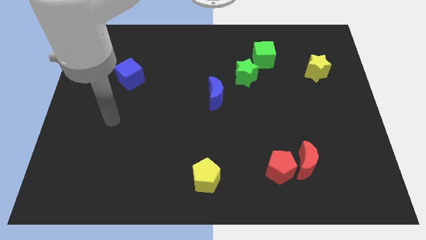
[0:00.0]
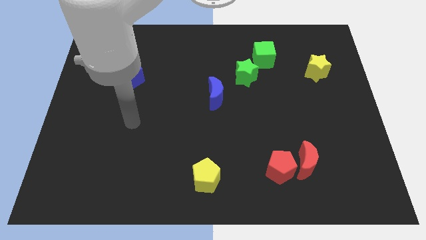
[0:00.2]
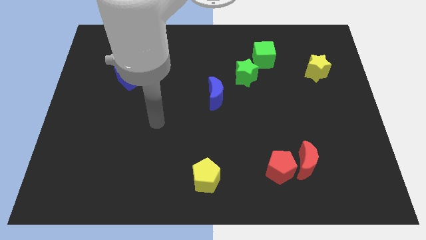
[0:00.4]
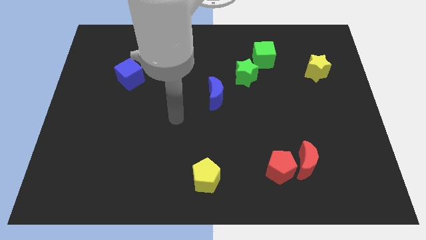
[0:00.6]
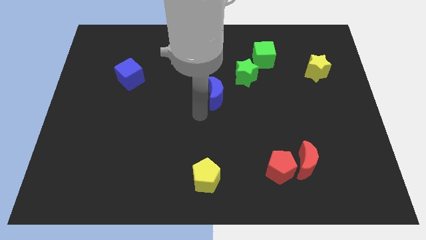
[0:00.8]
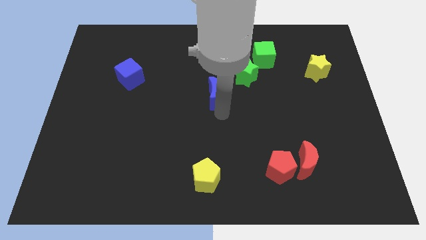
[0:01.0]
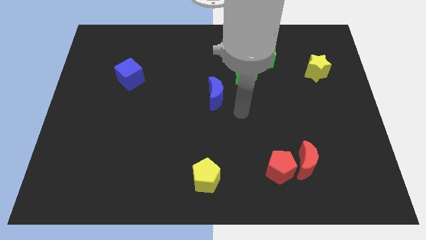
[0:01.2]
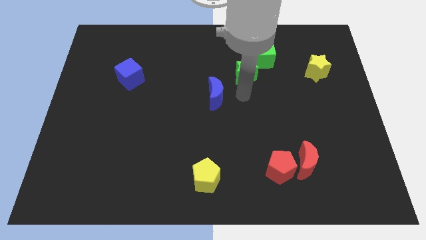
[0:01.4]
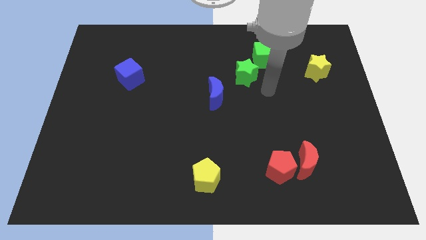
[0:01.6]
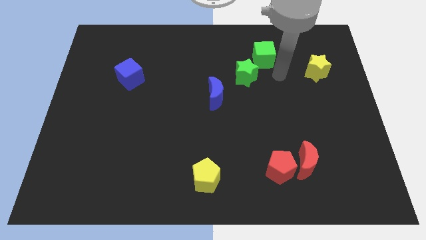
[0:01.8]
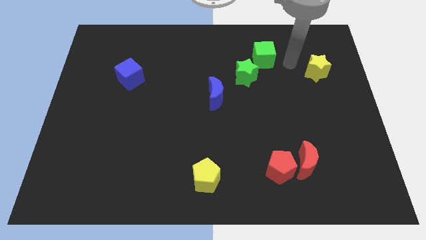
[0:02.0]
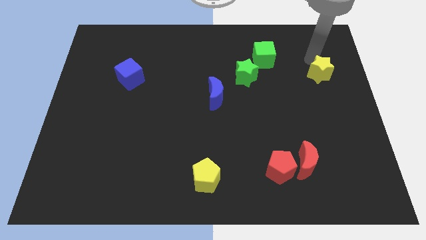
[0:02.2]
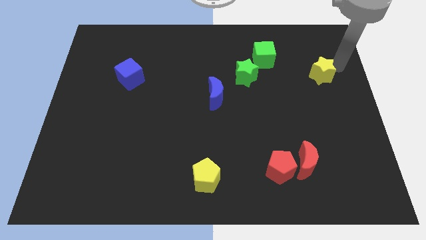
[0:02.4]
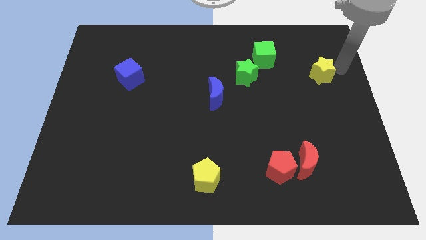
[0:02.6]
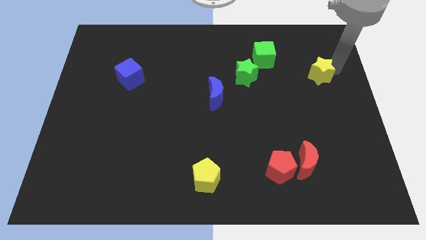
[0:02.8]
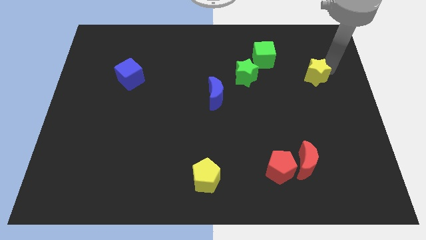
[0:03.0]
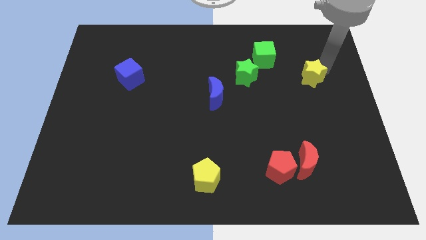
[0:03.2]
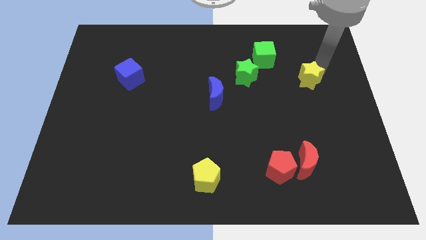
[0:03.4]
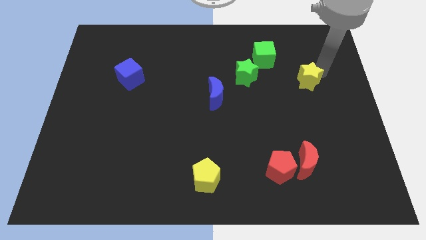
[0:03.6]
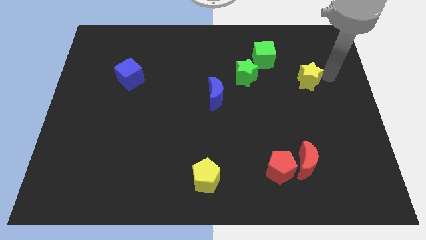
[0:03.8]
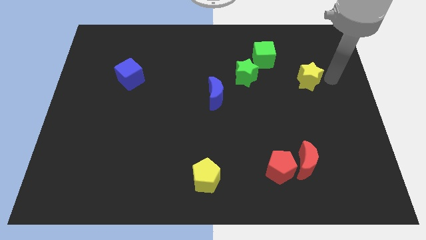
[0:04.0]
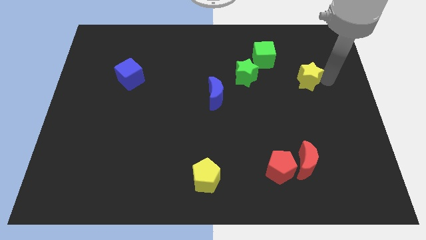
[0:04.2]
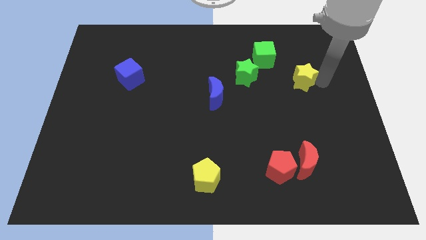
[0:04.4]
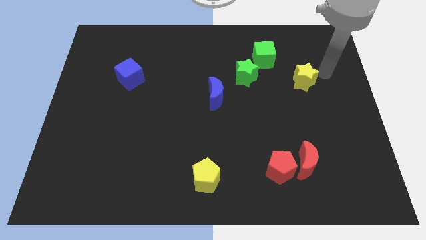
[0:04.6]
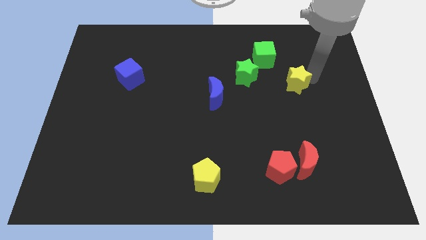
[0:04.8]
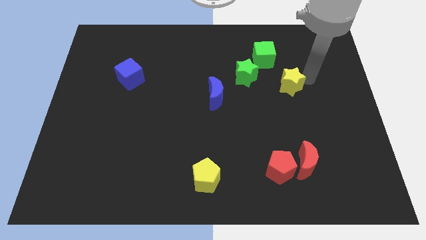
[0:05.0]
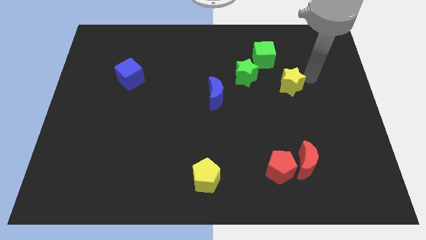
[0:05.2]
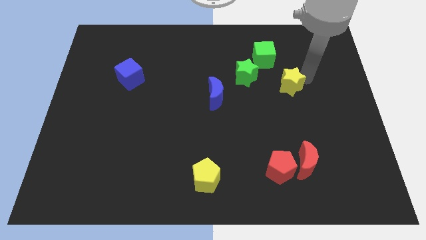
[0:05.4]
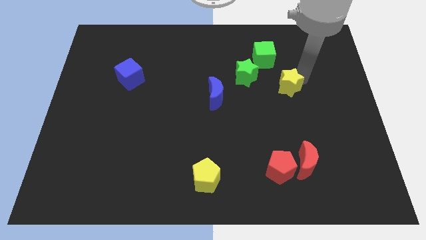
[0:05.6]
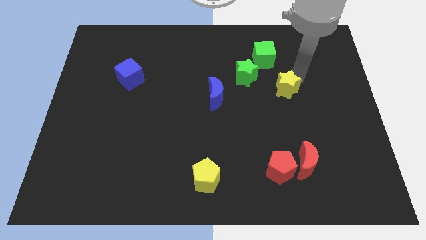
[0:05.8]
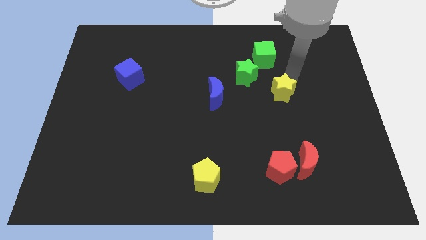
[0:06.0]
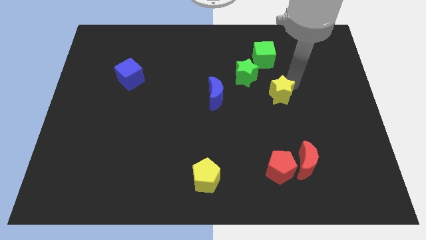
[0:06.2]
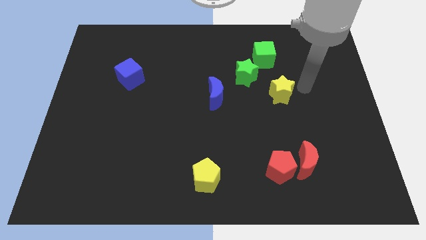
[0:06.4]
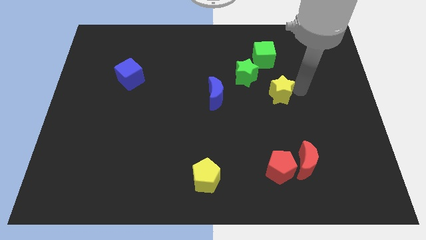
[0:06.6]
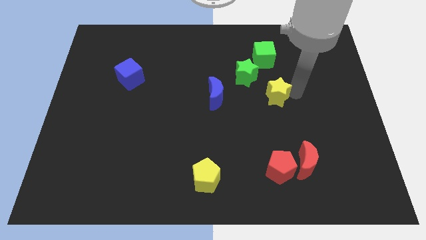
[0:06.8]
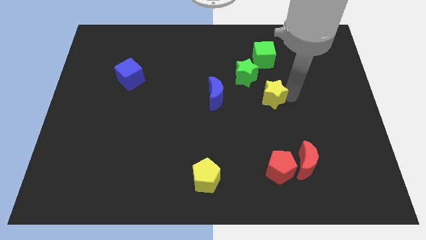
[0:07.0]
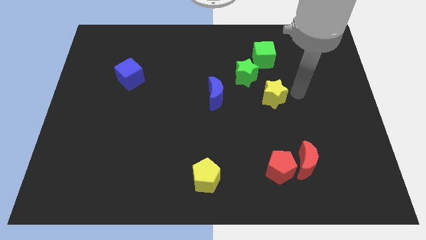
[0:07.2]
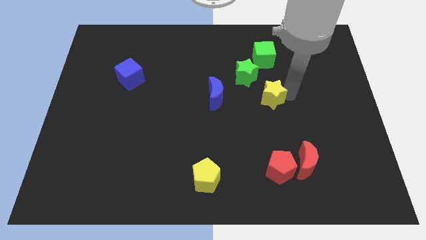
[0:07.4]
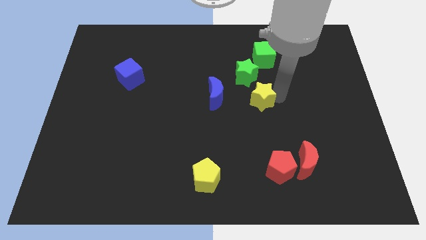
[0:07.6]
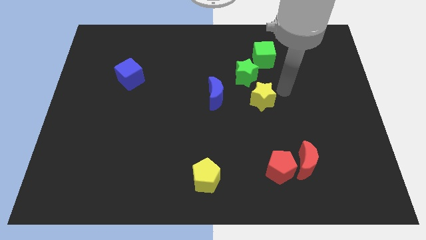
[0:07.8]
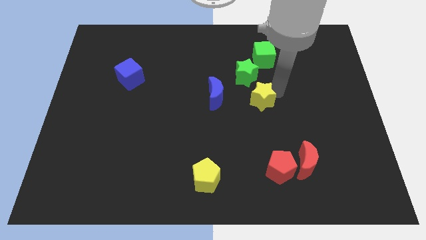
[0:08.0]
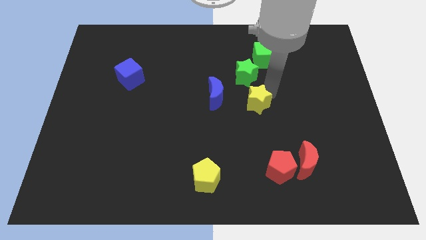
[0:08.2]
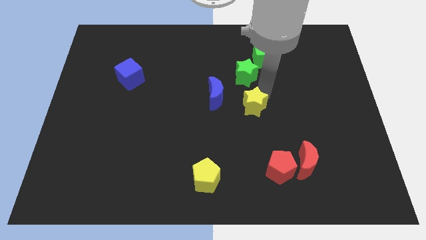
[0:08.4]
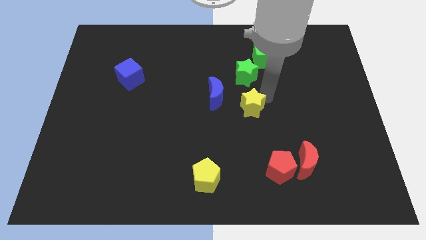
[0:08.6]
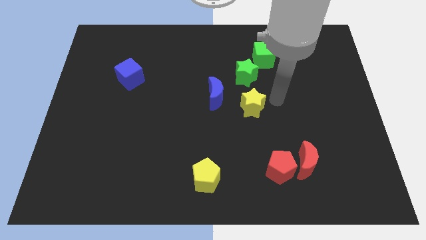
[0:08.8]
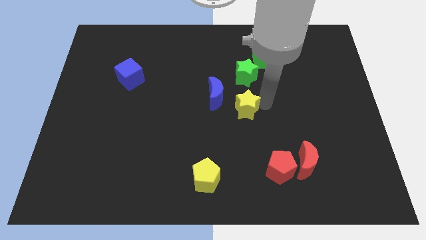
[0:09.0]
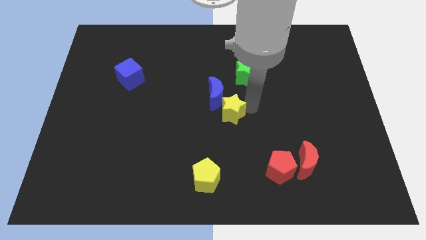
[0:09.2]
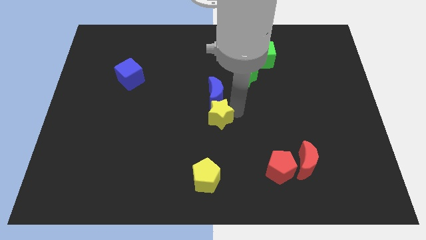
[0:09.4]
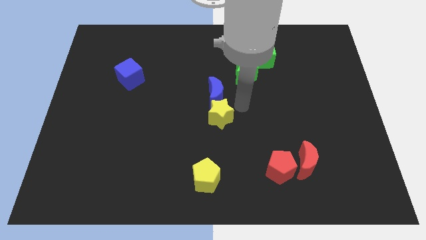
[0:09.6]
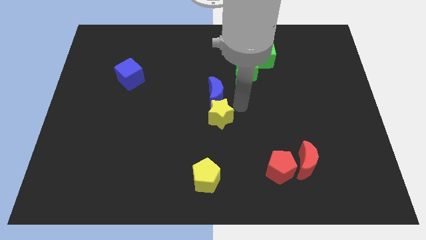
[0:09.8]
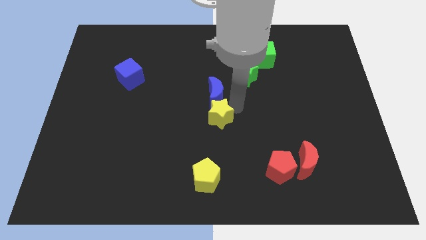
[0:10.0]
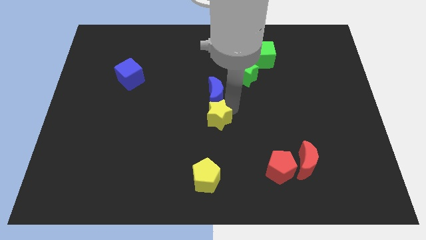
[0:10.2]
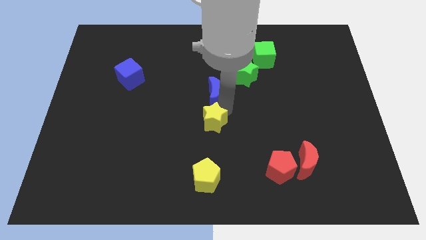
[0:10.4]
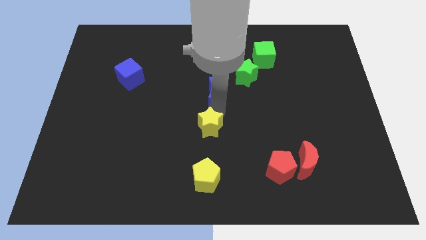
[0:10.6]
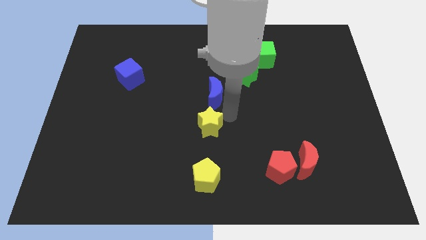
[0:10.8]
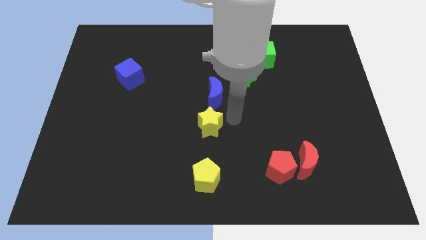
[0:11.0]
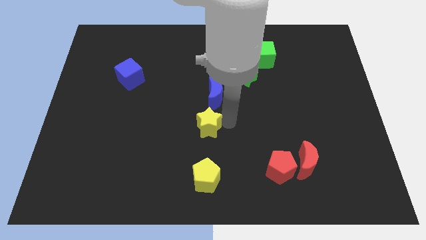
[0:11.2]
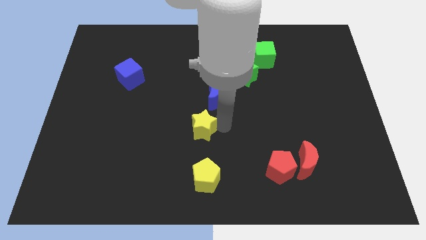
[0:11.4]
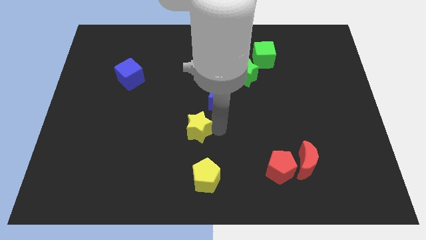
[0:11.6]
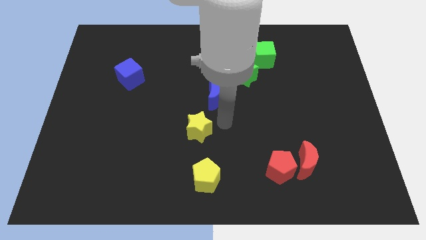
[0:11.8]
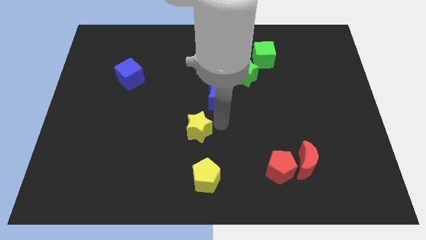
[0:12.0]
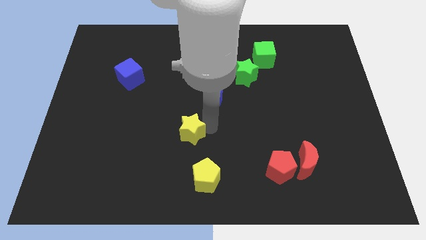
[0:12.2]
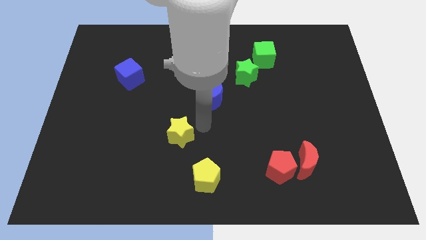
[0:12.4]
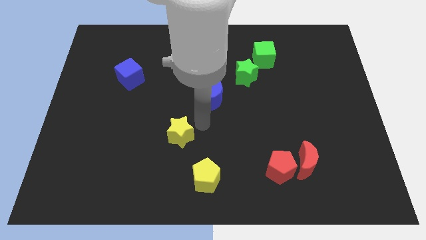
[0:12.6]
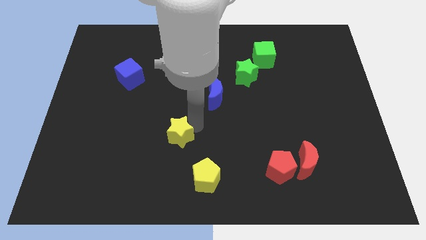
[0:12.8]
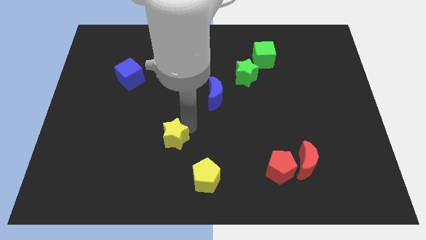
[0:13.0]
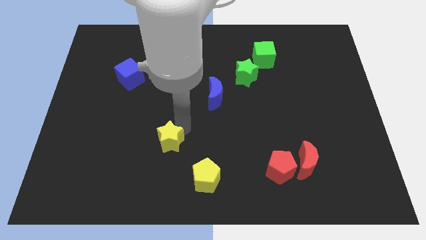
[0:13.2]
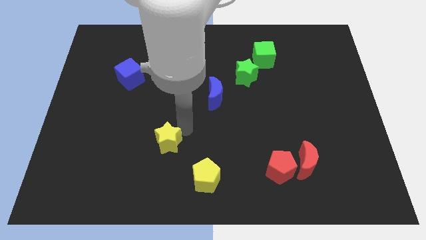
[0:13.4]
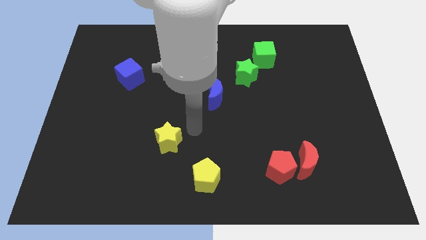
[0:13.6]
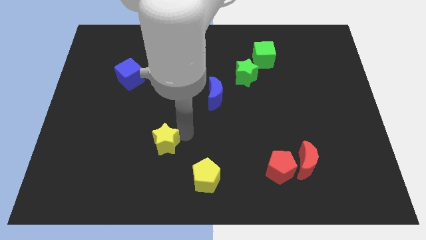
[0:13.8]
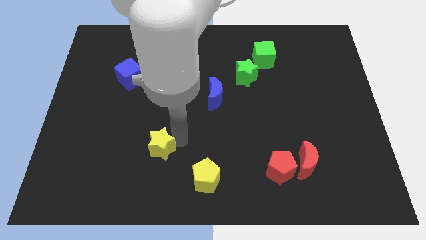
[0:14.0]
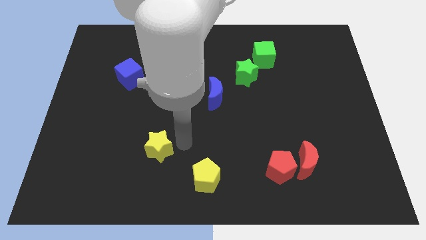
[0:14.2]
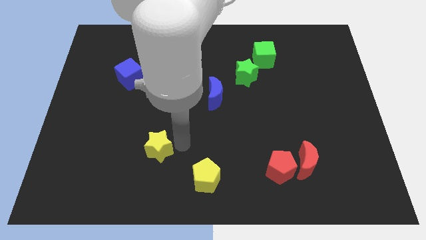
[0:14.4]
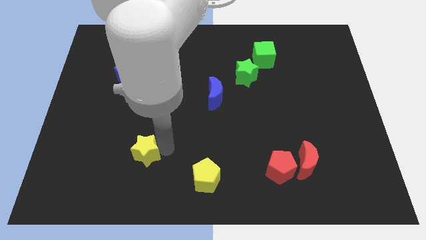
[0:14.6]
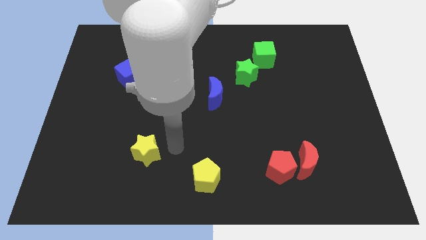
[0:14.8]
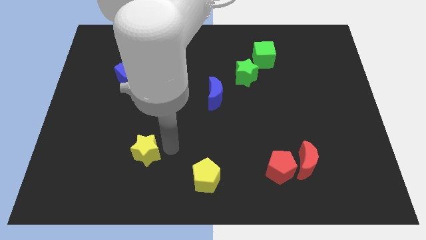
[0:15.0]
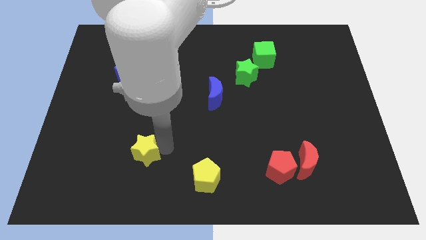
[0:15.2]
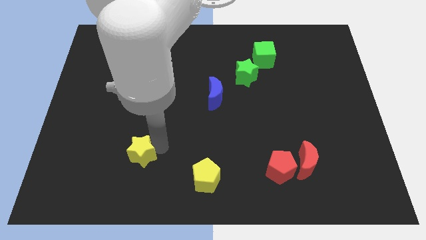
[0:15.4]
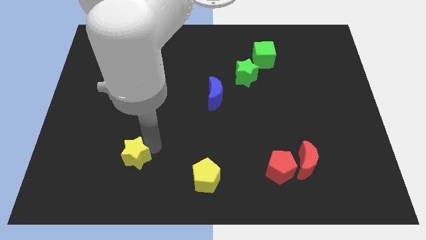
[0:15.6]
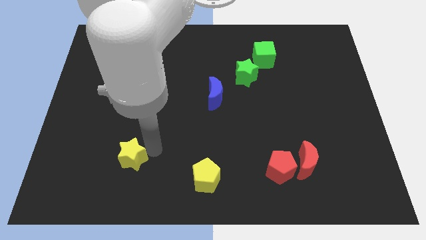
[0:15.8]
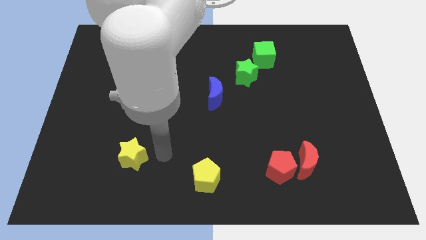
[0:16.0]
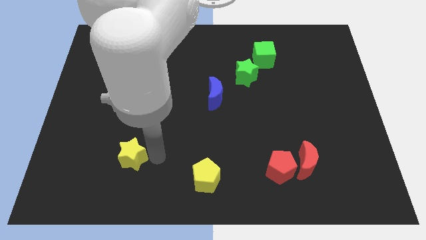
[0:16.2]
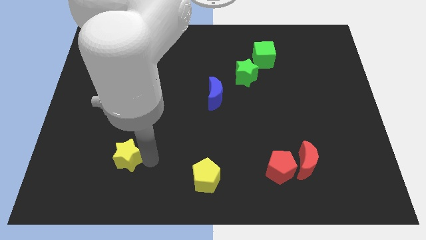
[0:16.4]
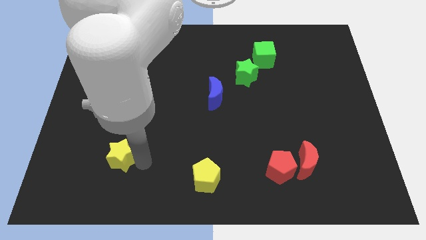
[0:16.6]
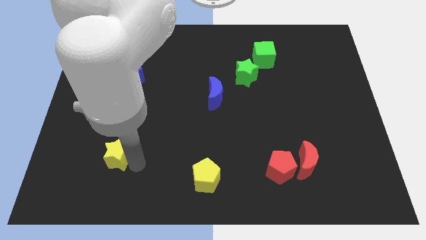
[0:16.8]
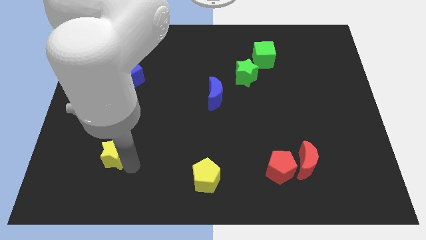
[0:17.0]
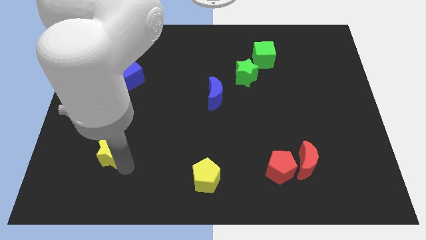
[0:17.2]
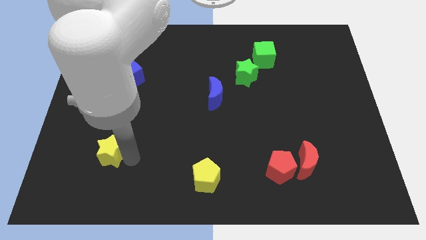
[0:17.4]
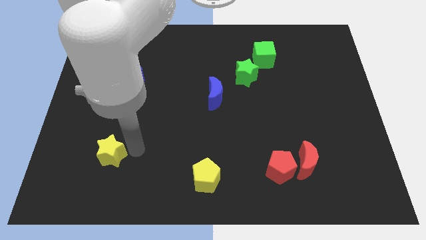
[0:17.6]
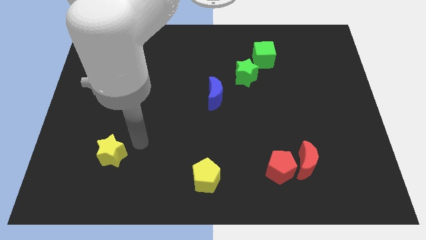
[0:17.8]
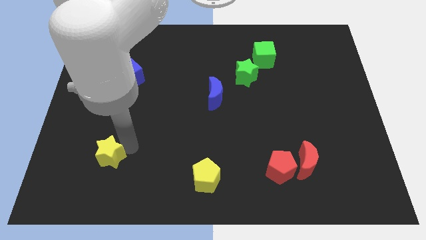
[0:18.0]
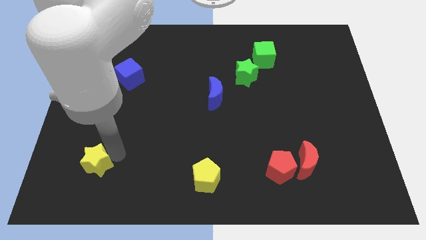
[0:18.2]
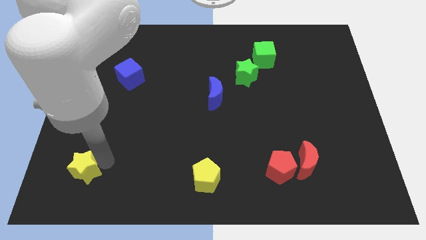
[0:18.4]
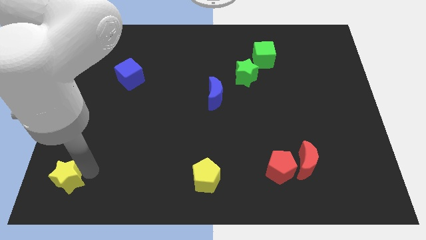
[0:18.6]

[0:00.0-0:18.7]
put the yellow star to the bottom left corner
